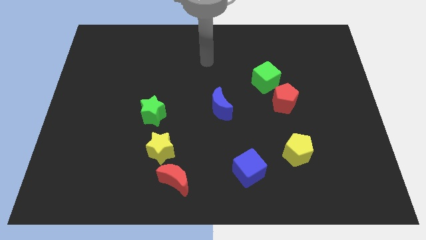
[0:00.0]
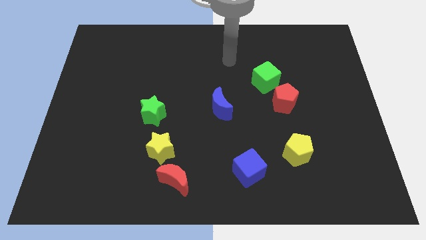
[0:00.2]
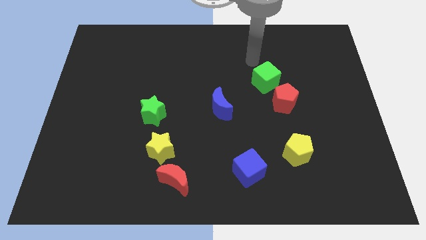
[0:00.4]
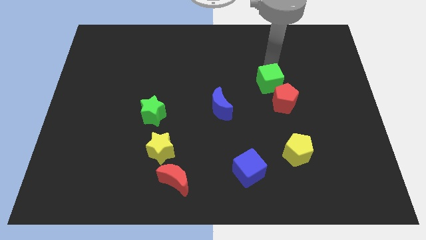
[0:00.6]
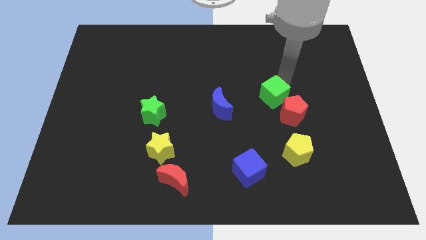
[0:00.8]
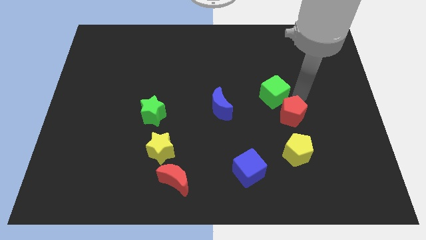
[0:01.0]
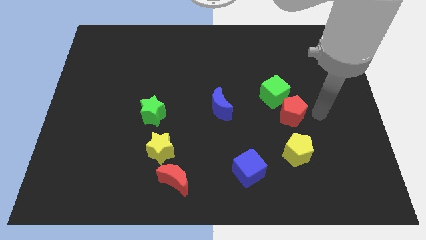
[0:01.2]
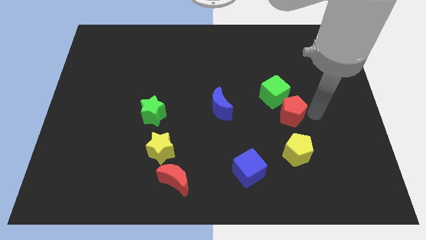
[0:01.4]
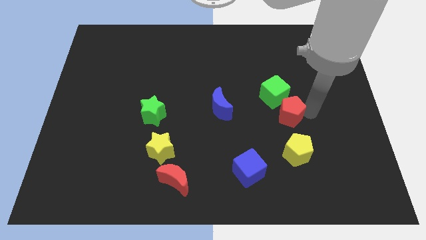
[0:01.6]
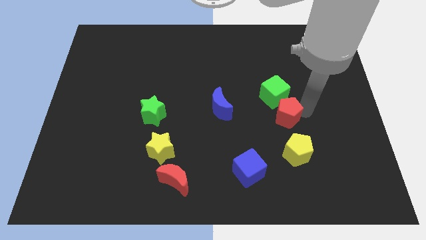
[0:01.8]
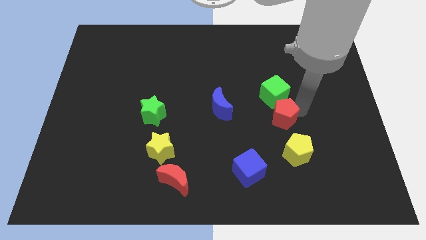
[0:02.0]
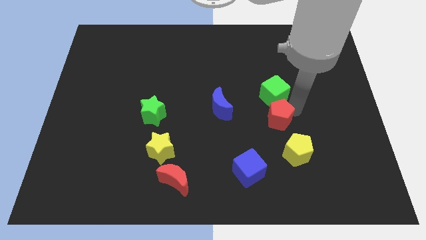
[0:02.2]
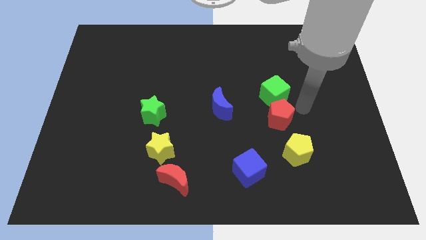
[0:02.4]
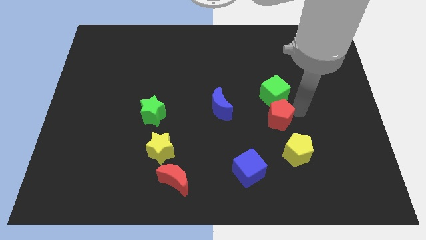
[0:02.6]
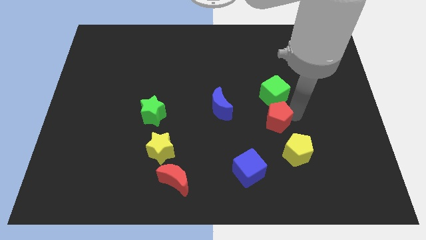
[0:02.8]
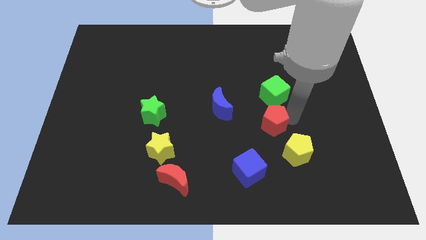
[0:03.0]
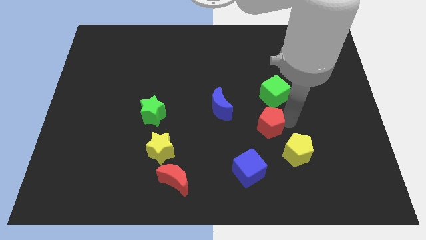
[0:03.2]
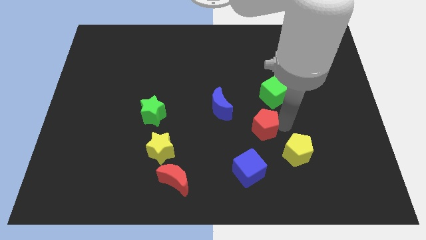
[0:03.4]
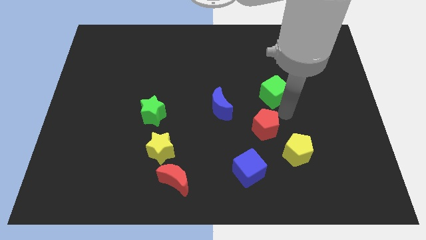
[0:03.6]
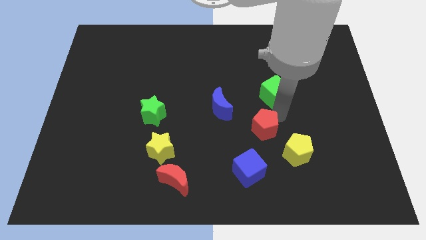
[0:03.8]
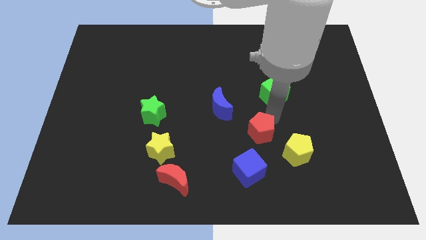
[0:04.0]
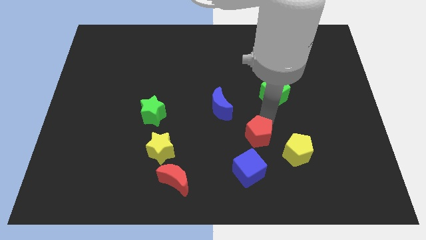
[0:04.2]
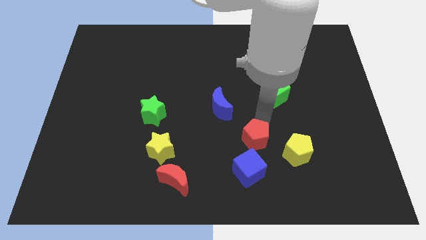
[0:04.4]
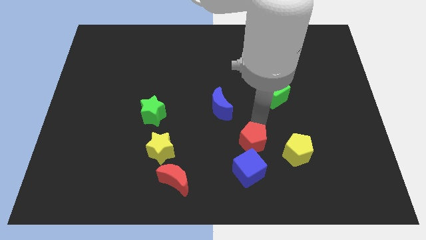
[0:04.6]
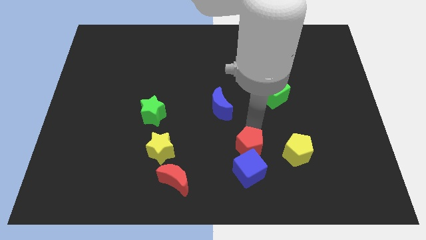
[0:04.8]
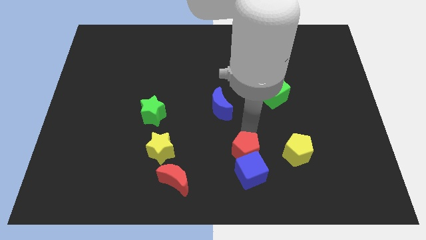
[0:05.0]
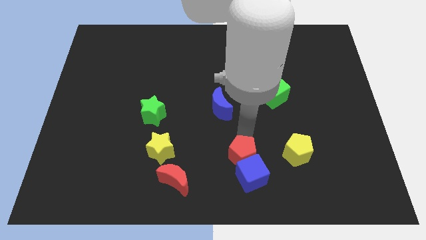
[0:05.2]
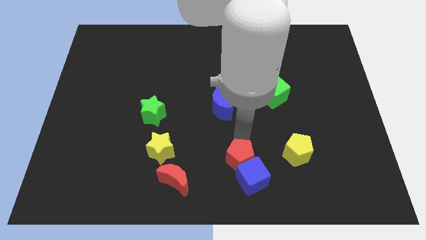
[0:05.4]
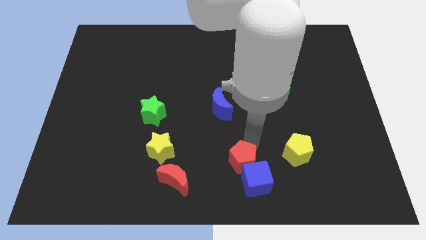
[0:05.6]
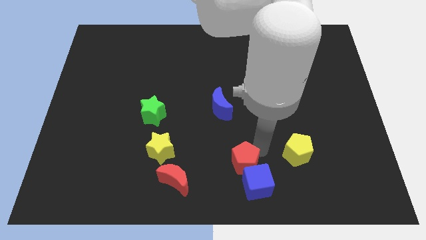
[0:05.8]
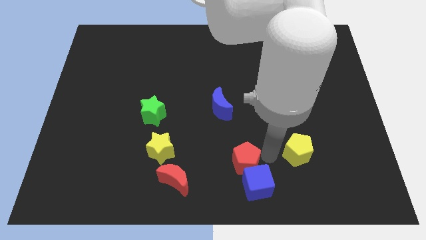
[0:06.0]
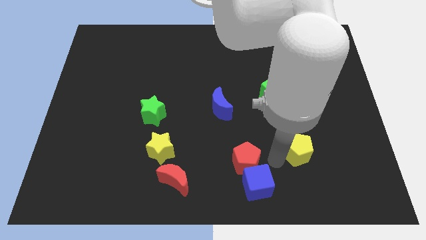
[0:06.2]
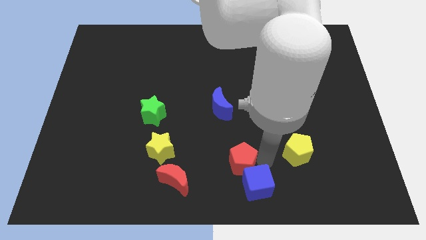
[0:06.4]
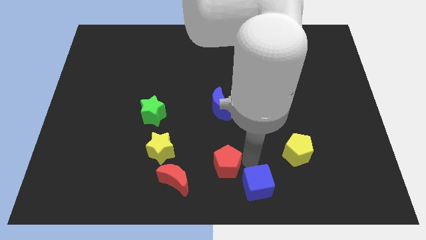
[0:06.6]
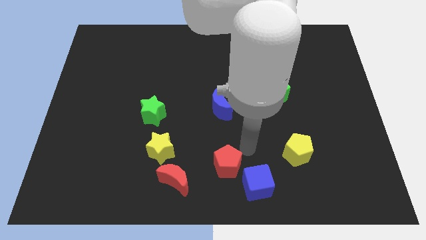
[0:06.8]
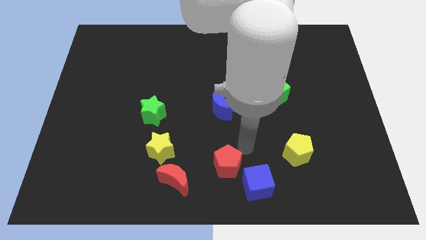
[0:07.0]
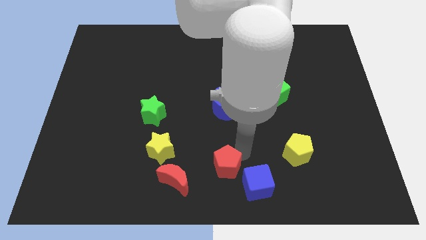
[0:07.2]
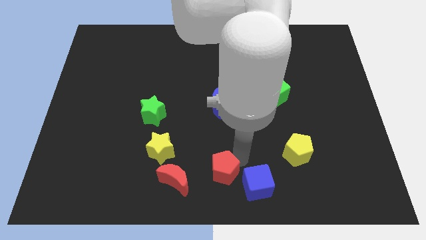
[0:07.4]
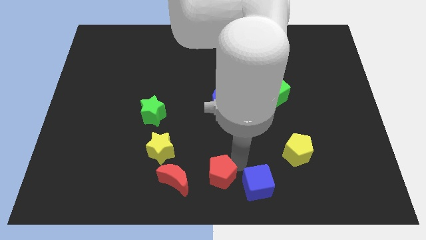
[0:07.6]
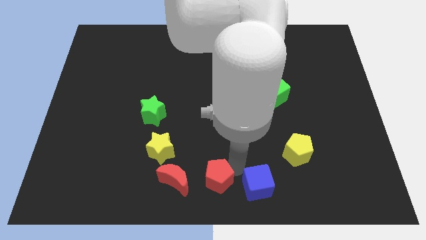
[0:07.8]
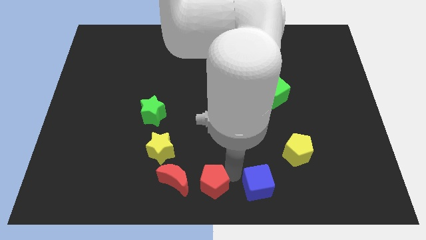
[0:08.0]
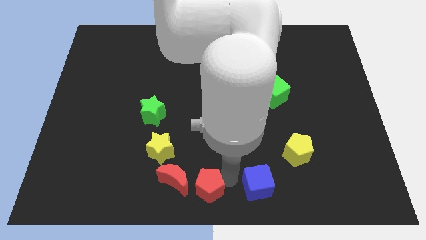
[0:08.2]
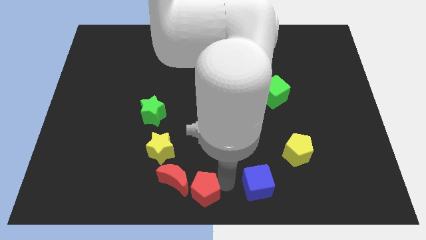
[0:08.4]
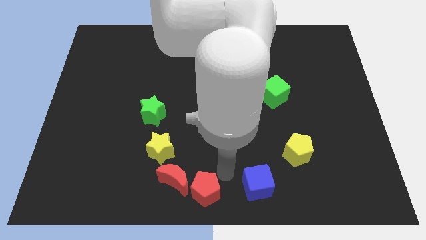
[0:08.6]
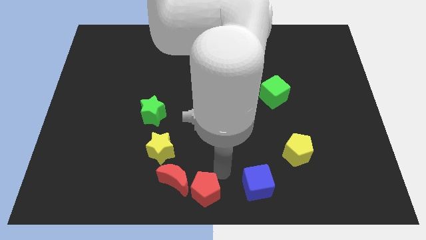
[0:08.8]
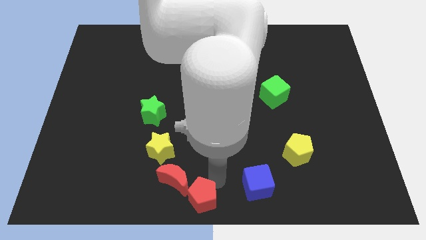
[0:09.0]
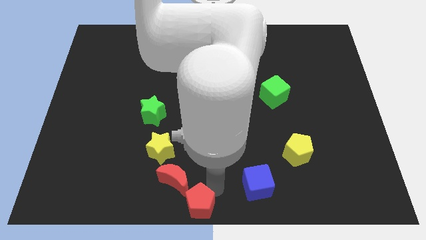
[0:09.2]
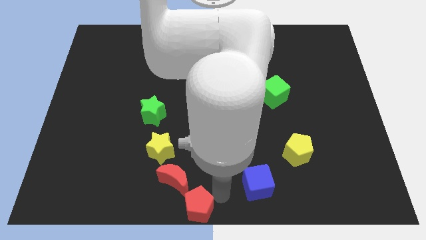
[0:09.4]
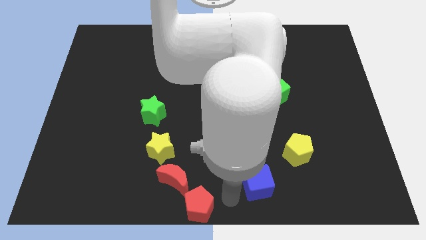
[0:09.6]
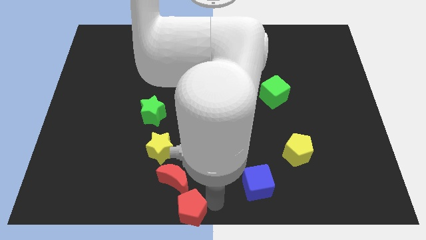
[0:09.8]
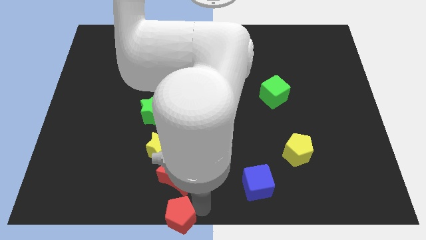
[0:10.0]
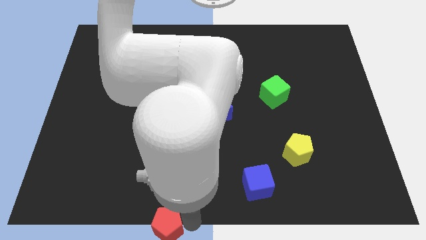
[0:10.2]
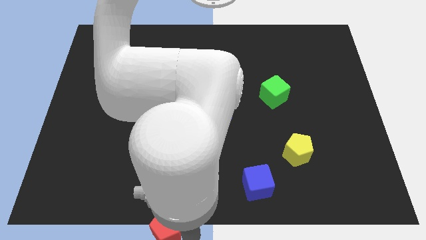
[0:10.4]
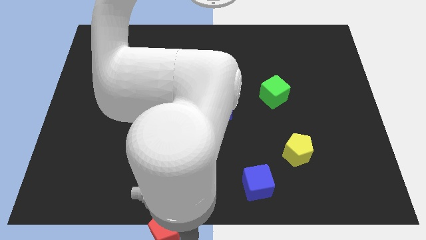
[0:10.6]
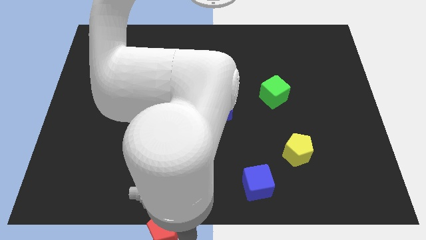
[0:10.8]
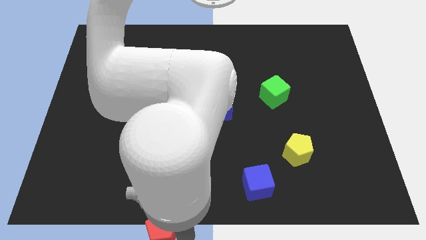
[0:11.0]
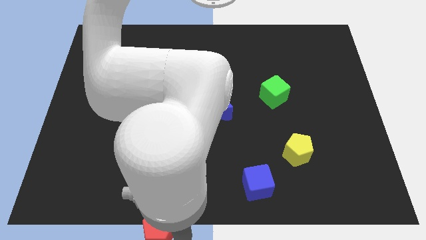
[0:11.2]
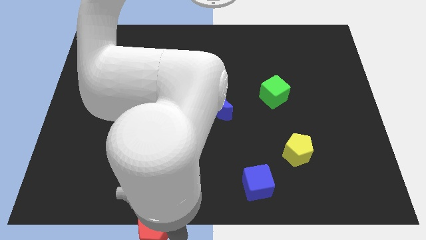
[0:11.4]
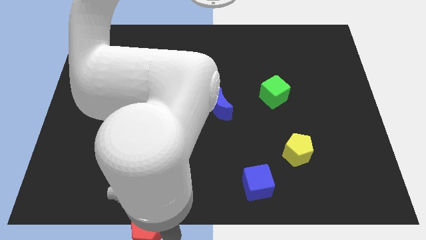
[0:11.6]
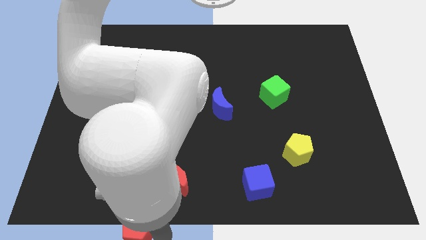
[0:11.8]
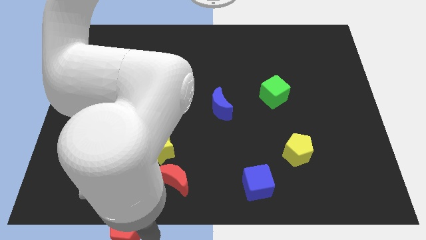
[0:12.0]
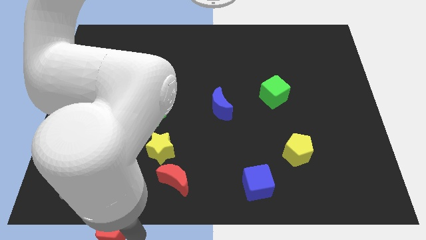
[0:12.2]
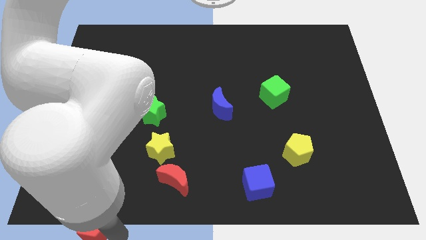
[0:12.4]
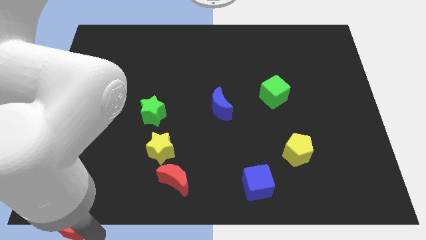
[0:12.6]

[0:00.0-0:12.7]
slide the red pentagon to the bottom left of the board

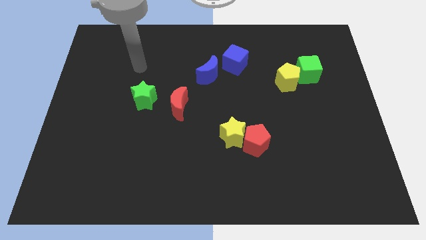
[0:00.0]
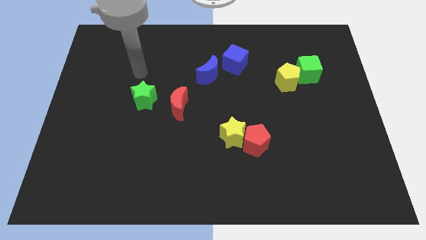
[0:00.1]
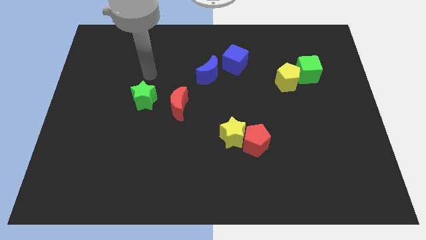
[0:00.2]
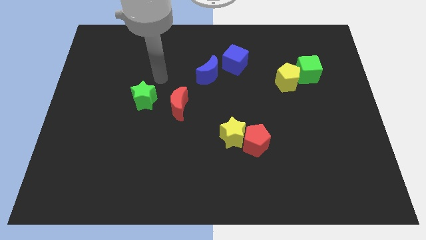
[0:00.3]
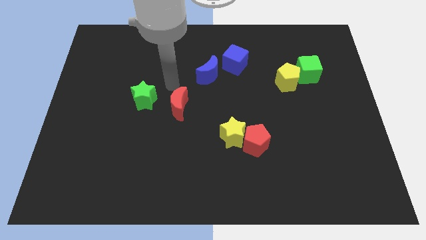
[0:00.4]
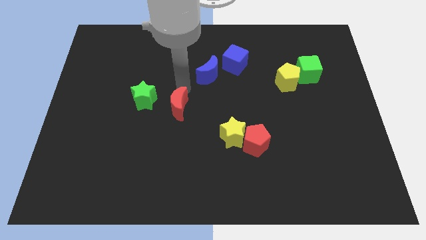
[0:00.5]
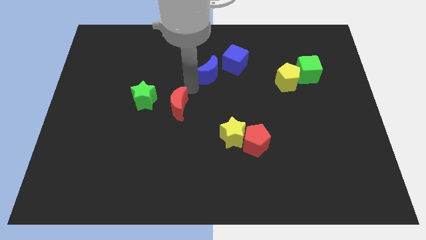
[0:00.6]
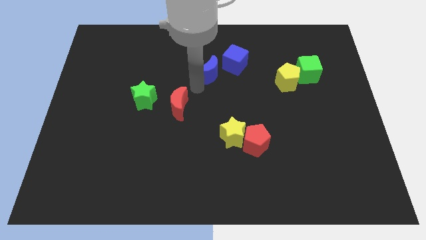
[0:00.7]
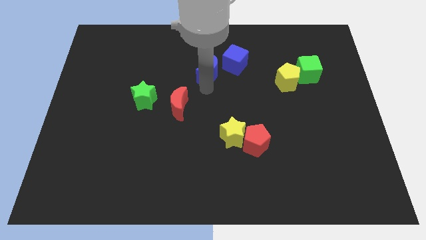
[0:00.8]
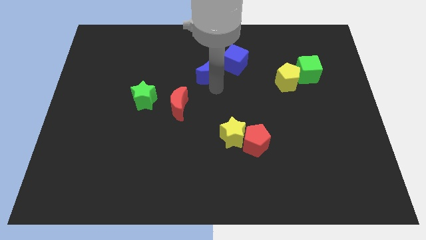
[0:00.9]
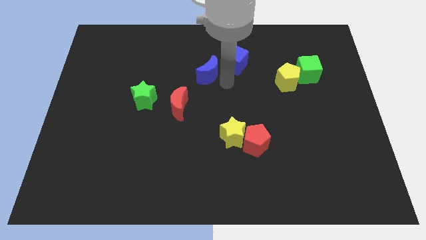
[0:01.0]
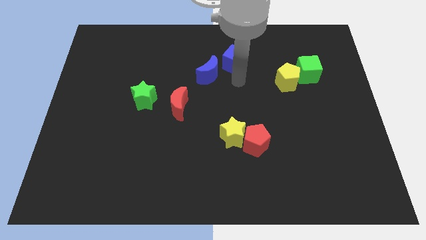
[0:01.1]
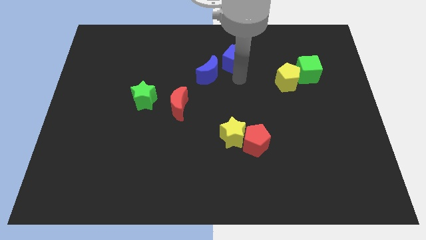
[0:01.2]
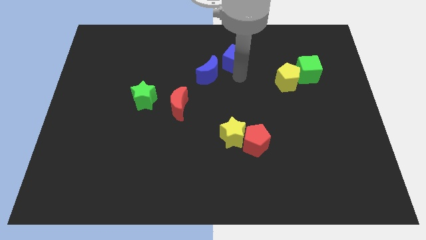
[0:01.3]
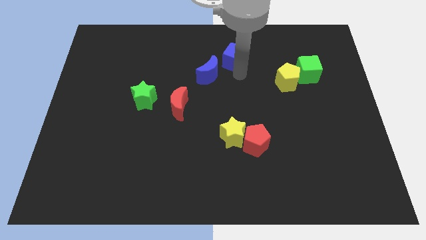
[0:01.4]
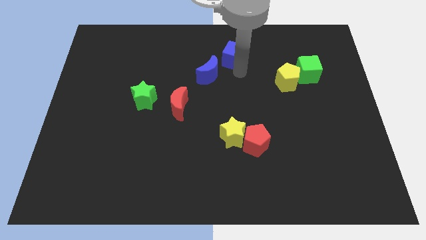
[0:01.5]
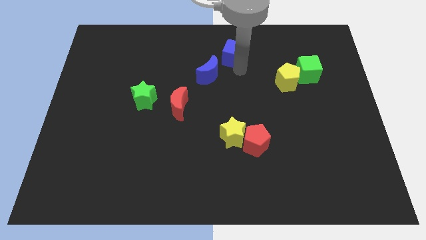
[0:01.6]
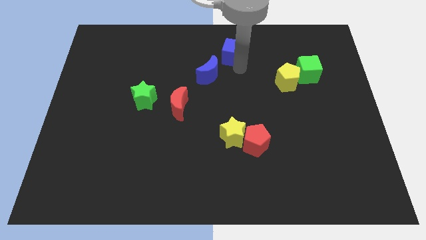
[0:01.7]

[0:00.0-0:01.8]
put the blue cube to the top side
